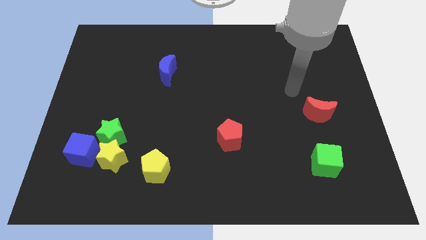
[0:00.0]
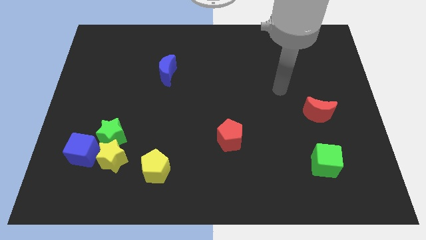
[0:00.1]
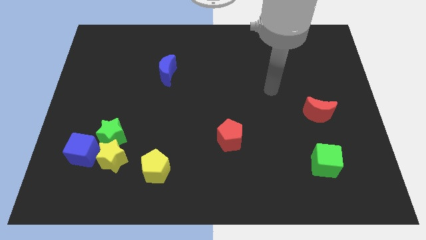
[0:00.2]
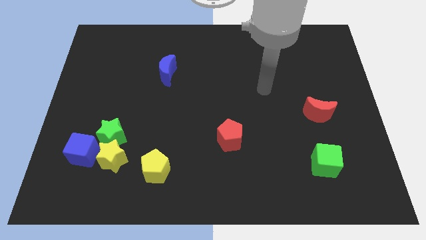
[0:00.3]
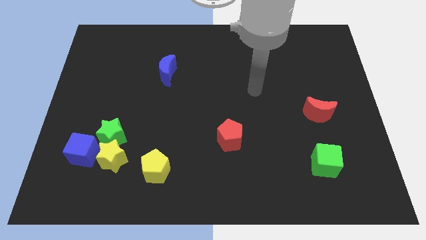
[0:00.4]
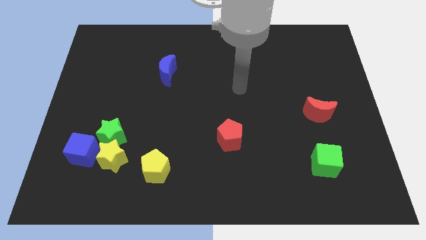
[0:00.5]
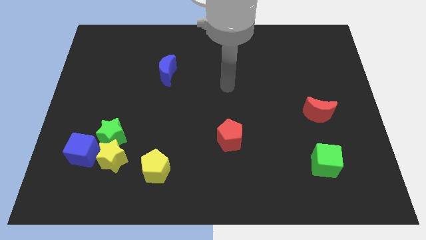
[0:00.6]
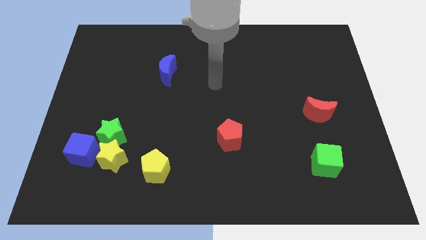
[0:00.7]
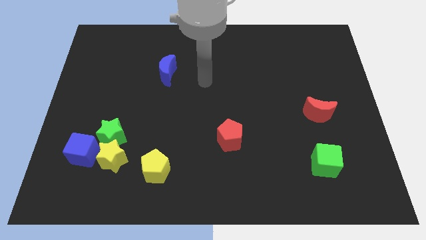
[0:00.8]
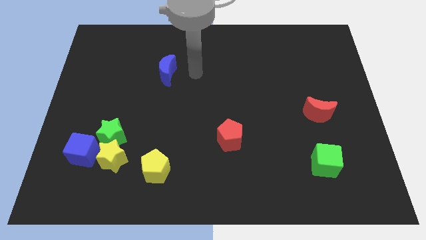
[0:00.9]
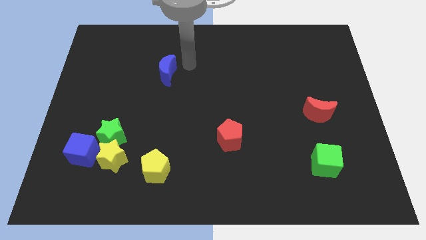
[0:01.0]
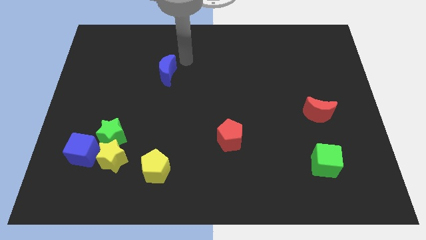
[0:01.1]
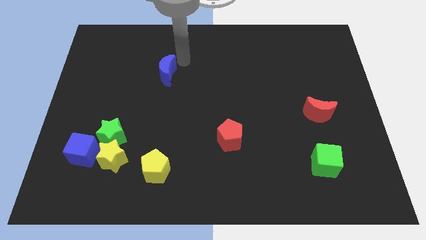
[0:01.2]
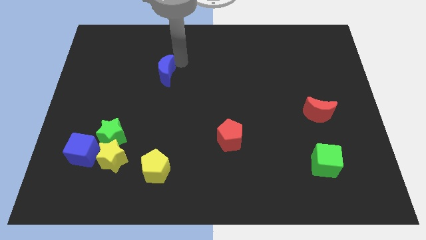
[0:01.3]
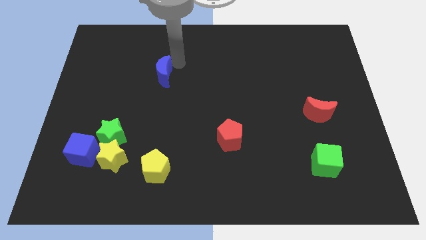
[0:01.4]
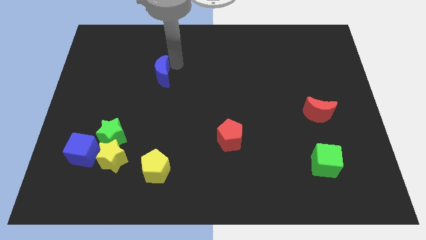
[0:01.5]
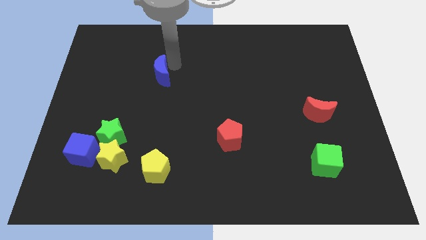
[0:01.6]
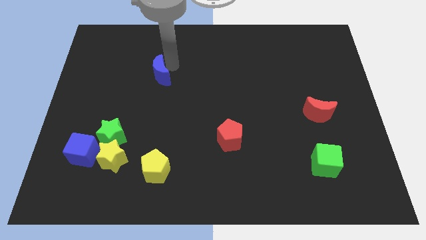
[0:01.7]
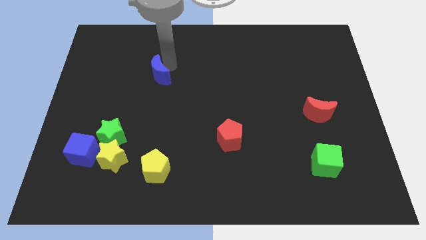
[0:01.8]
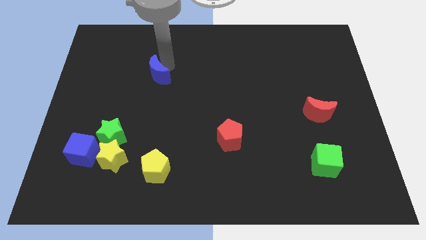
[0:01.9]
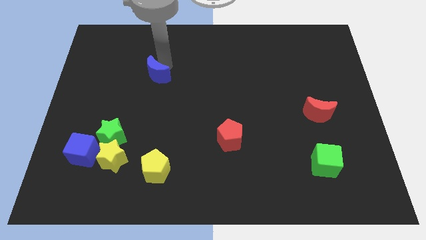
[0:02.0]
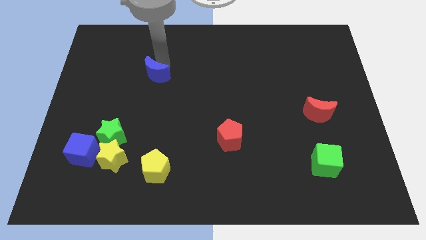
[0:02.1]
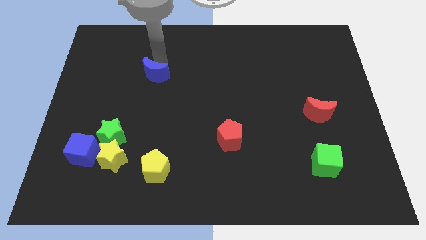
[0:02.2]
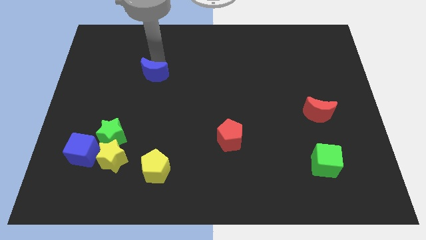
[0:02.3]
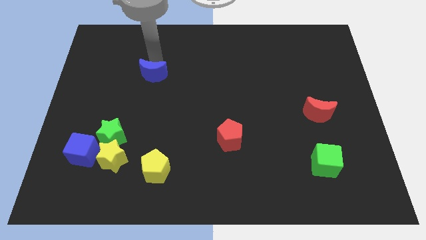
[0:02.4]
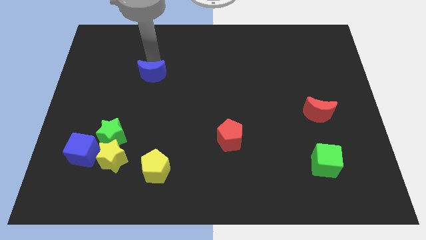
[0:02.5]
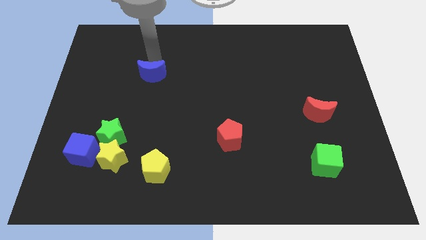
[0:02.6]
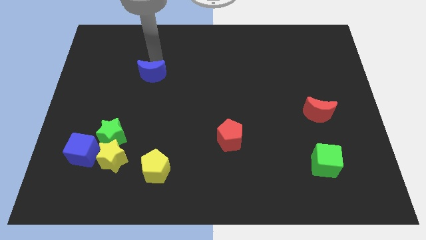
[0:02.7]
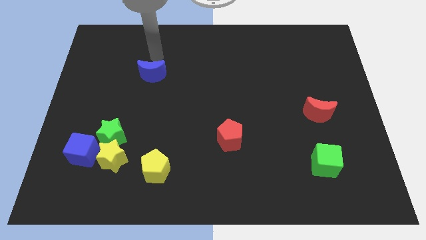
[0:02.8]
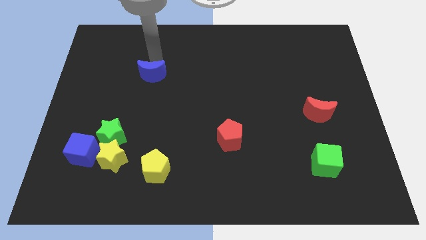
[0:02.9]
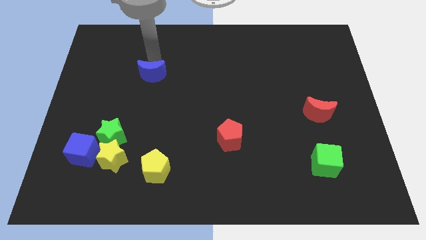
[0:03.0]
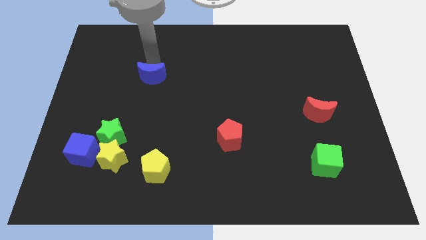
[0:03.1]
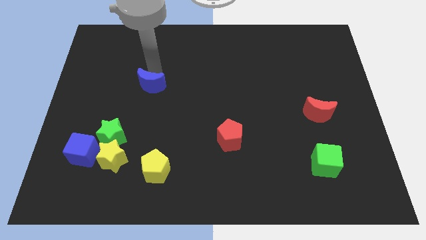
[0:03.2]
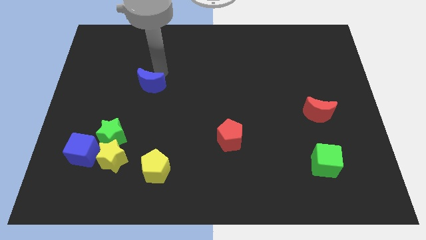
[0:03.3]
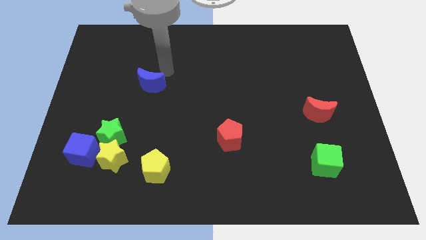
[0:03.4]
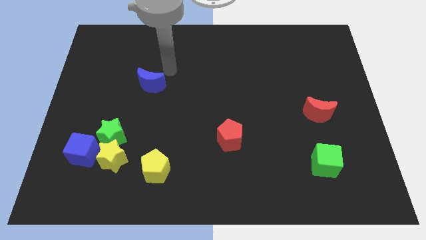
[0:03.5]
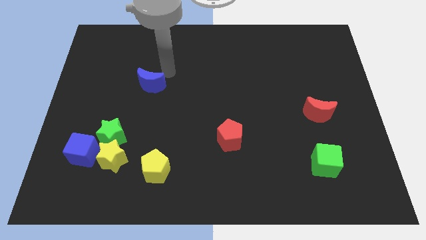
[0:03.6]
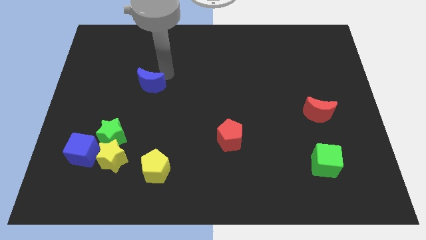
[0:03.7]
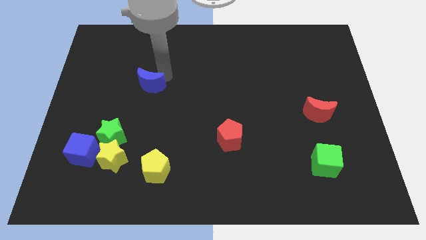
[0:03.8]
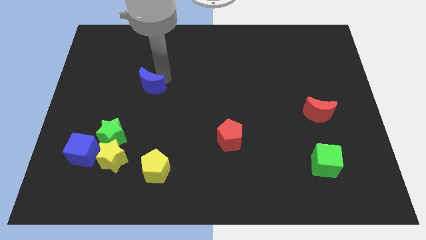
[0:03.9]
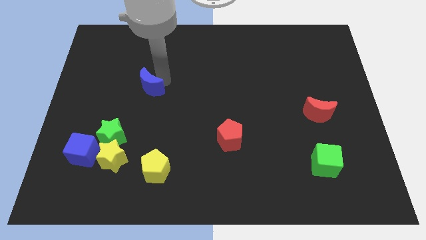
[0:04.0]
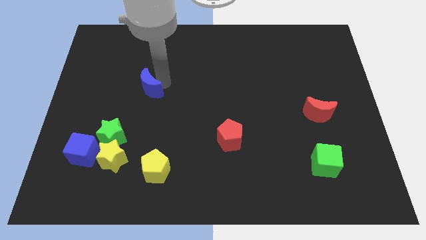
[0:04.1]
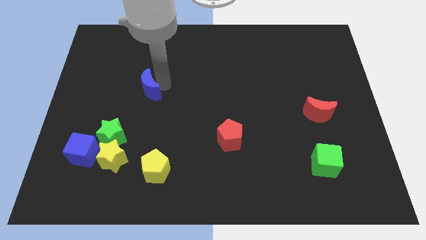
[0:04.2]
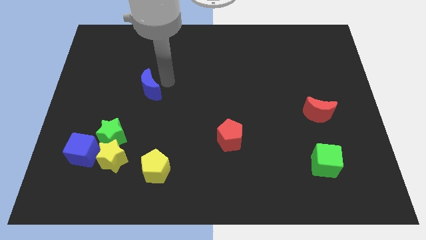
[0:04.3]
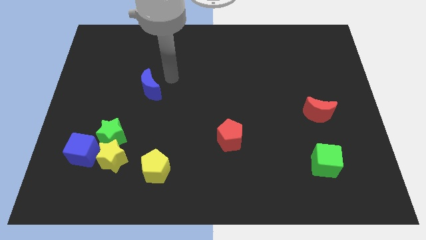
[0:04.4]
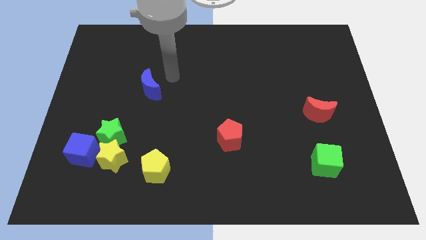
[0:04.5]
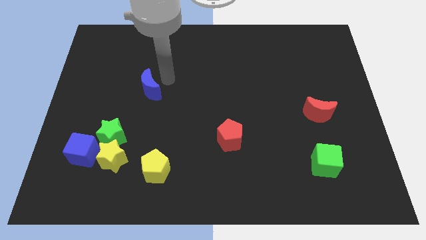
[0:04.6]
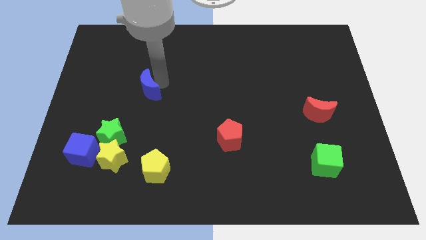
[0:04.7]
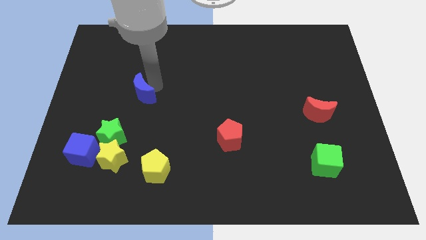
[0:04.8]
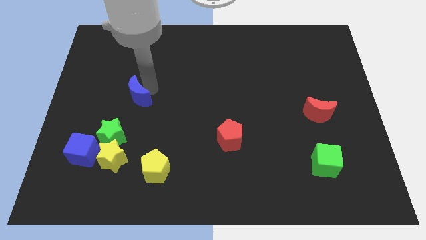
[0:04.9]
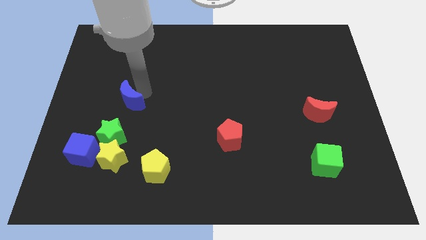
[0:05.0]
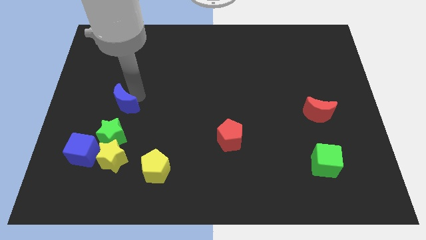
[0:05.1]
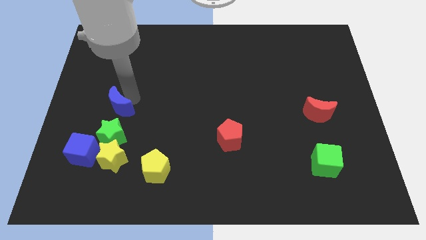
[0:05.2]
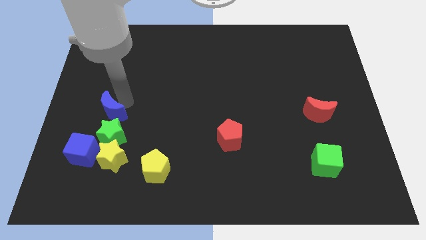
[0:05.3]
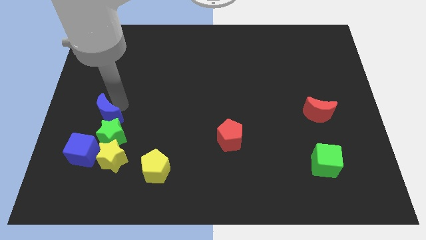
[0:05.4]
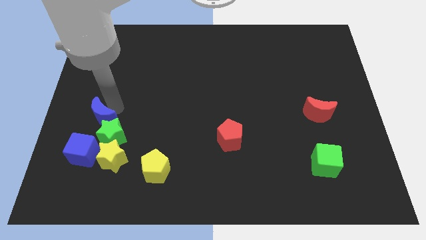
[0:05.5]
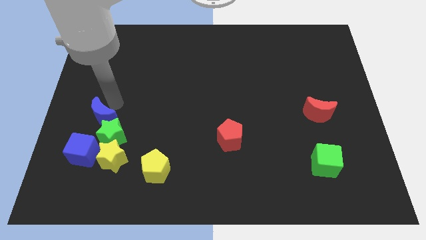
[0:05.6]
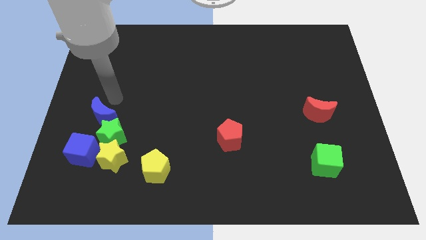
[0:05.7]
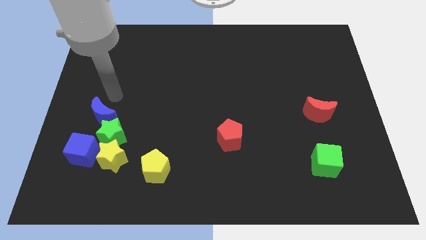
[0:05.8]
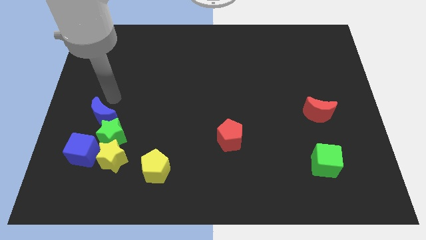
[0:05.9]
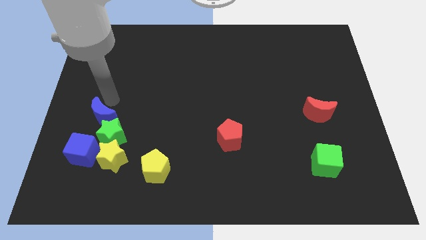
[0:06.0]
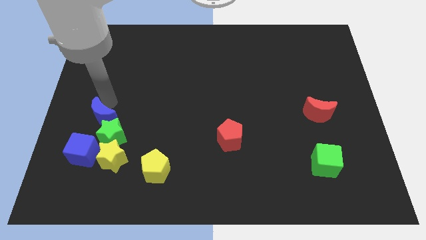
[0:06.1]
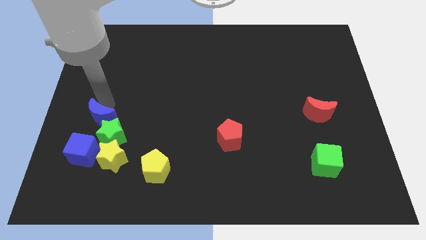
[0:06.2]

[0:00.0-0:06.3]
slide the blue moon to the top left side of the yellow star

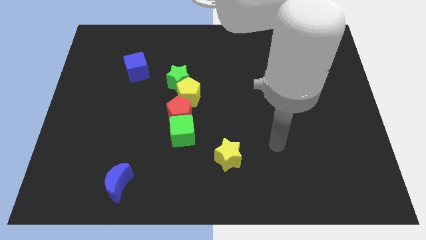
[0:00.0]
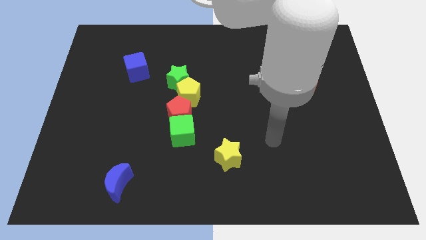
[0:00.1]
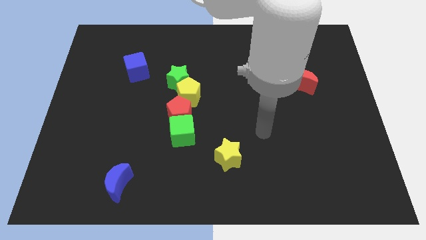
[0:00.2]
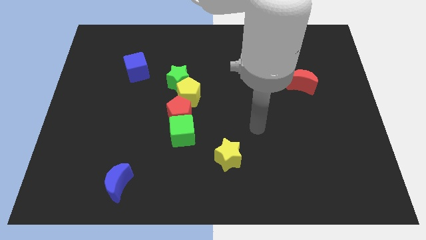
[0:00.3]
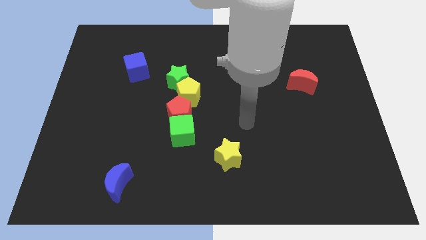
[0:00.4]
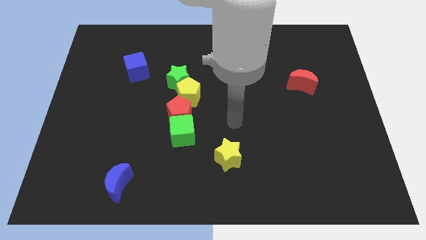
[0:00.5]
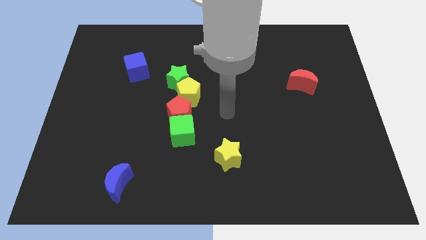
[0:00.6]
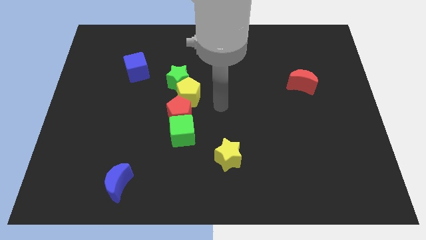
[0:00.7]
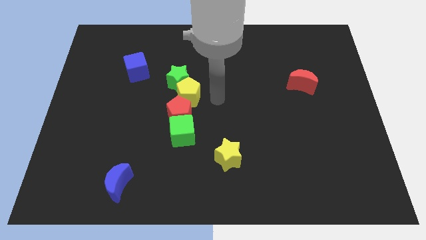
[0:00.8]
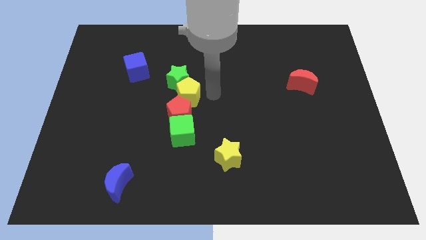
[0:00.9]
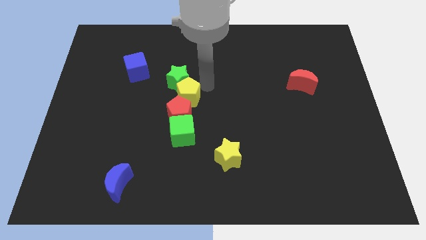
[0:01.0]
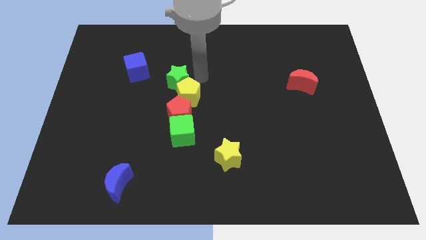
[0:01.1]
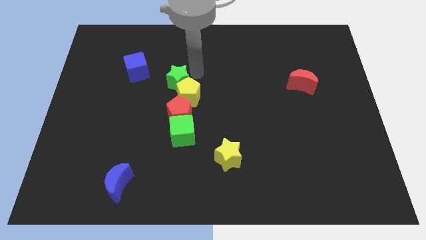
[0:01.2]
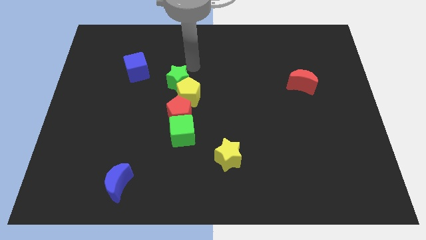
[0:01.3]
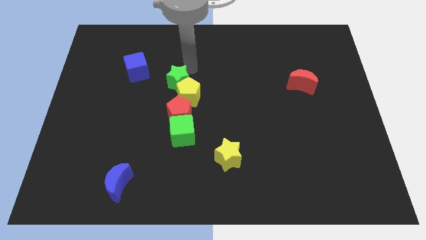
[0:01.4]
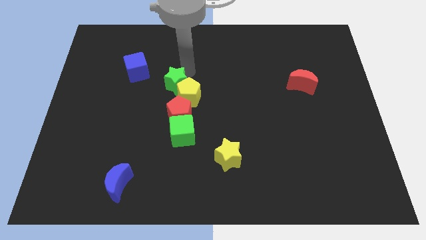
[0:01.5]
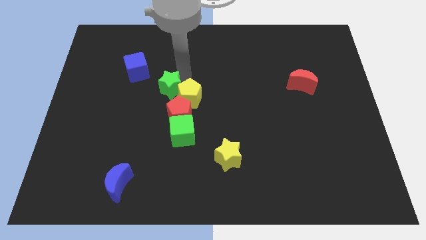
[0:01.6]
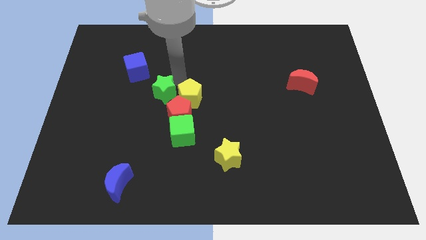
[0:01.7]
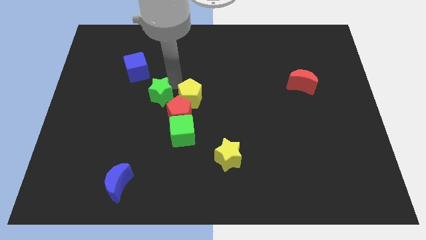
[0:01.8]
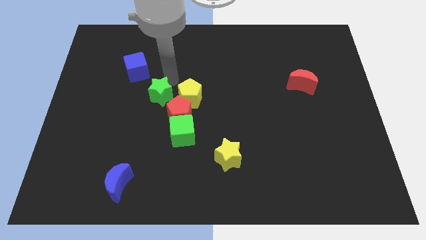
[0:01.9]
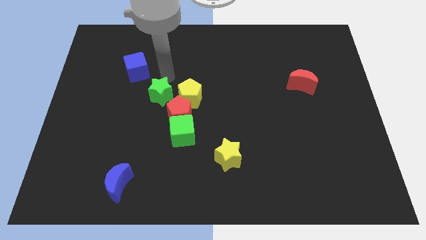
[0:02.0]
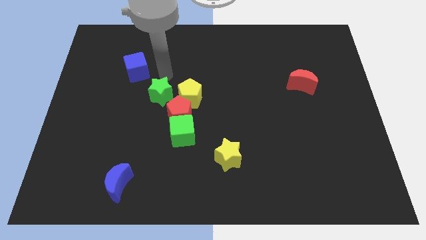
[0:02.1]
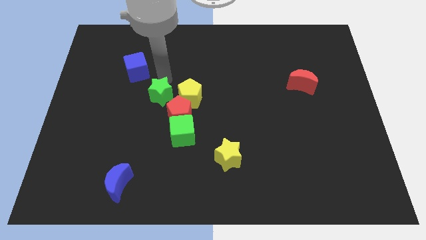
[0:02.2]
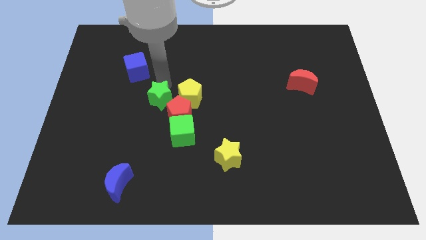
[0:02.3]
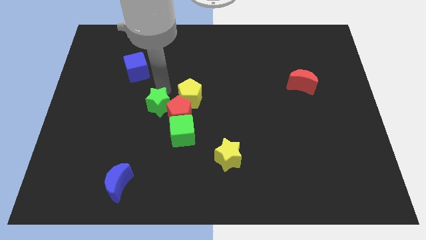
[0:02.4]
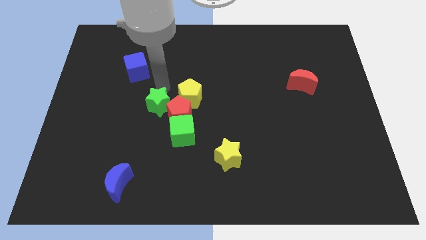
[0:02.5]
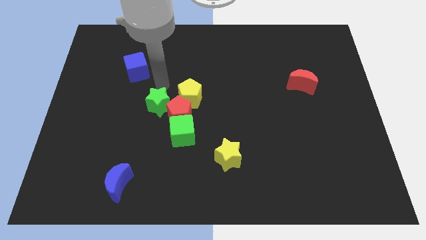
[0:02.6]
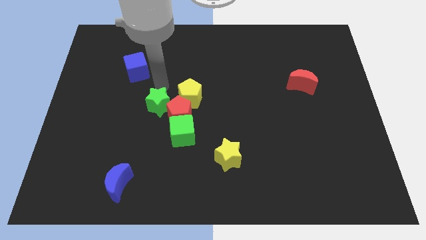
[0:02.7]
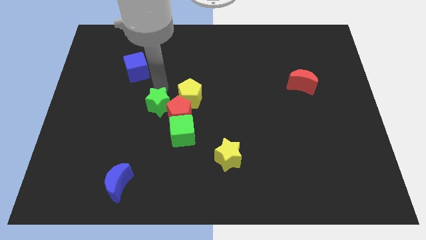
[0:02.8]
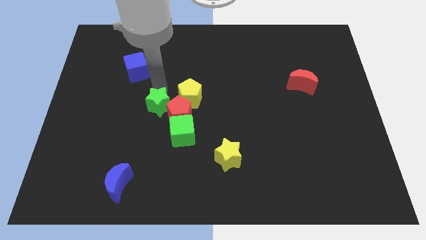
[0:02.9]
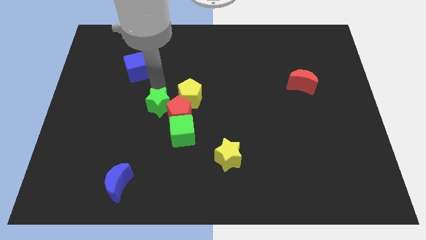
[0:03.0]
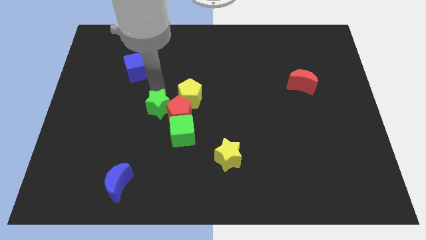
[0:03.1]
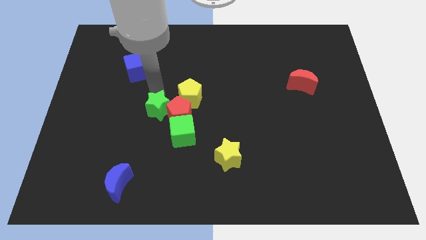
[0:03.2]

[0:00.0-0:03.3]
push the green star to the bottom left side of the red pentagon
